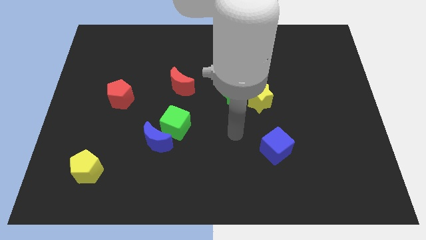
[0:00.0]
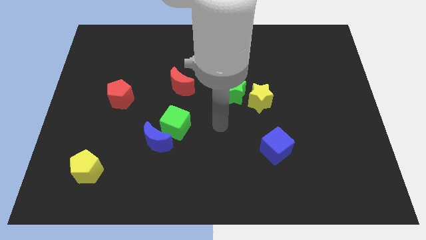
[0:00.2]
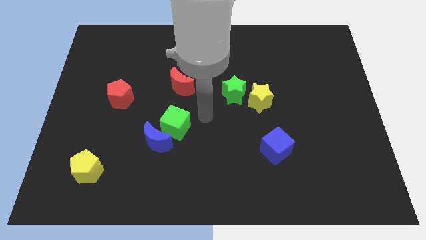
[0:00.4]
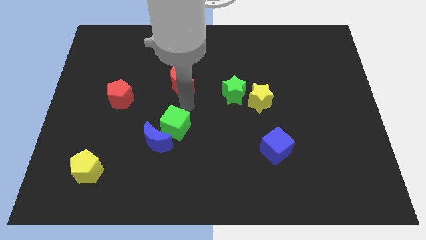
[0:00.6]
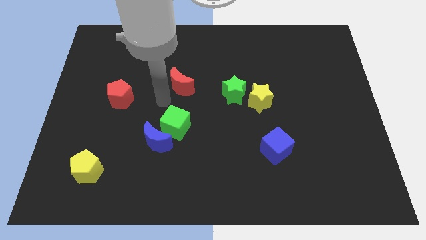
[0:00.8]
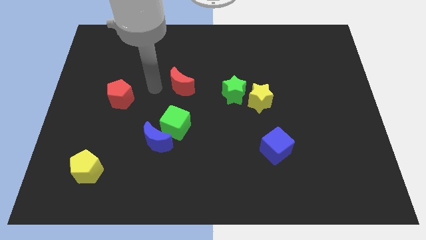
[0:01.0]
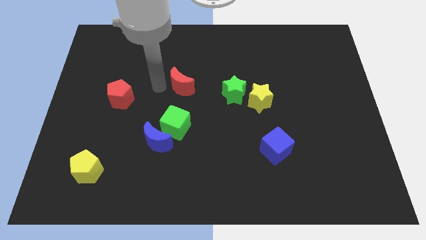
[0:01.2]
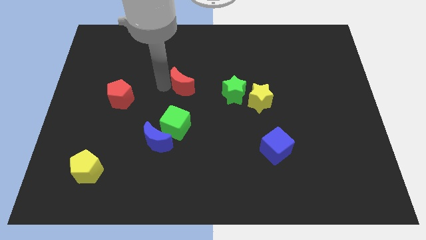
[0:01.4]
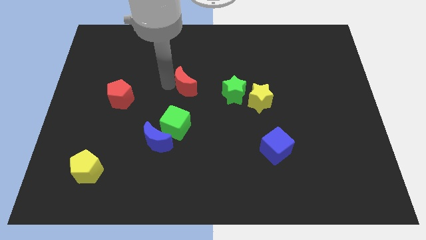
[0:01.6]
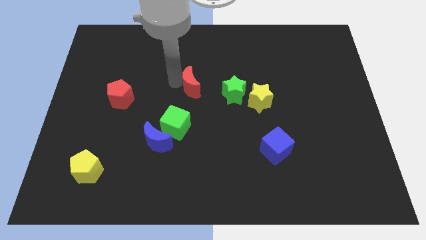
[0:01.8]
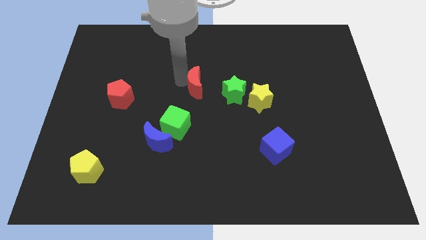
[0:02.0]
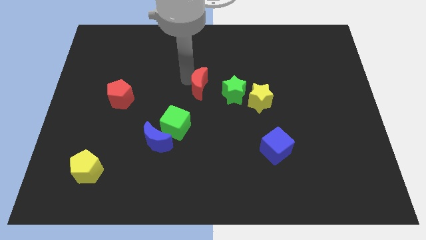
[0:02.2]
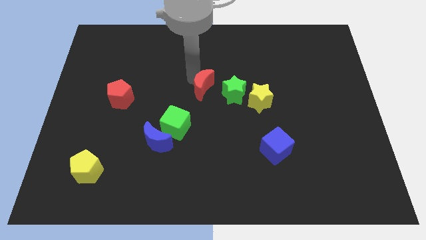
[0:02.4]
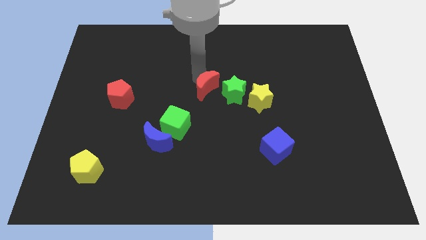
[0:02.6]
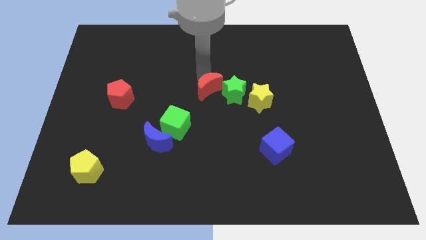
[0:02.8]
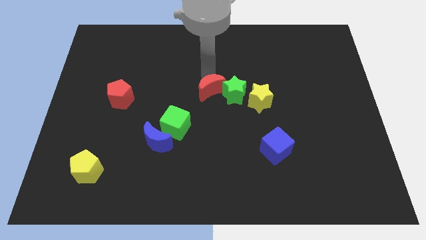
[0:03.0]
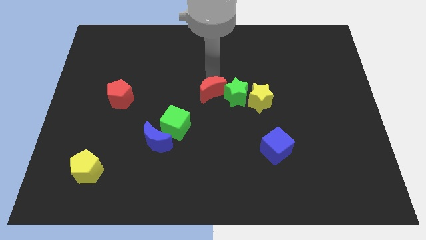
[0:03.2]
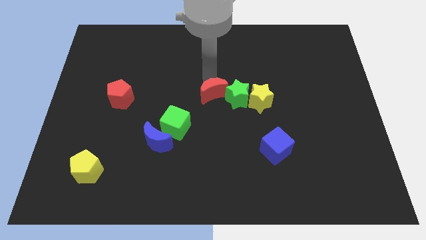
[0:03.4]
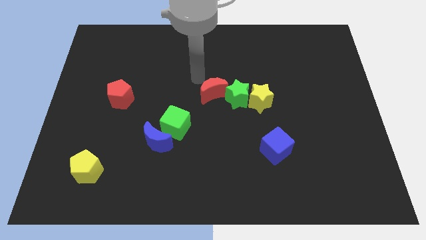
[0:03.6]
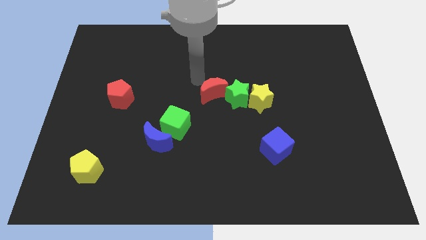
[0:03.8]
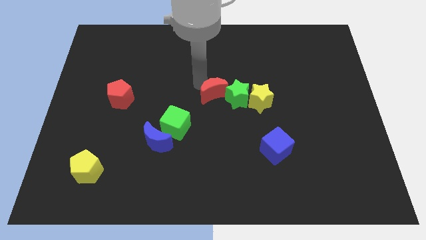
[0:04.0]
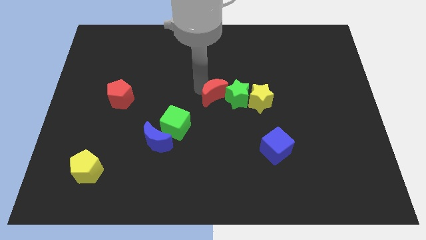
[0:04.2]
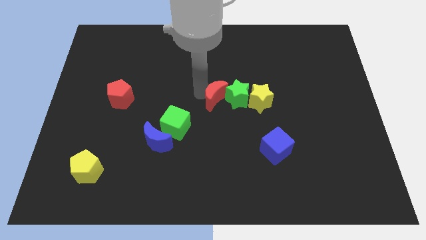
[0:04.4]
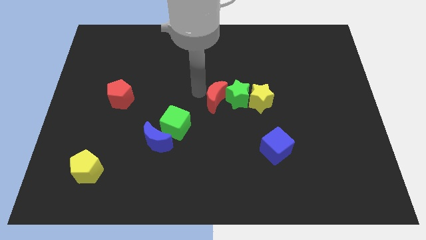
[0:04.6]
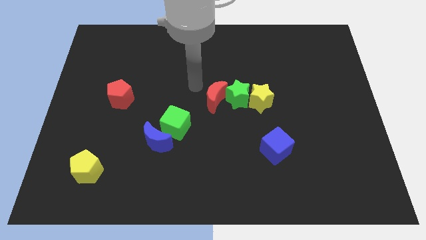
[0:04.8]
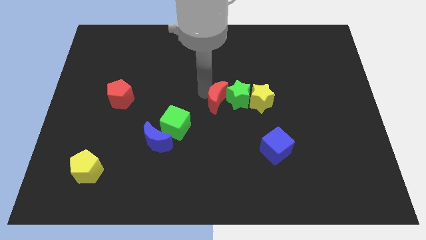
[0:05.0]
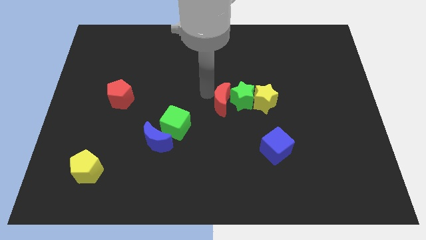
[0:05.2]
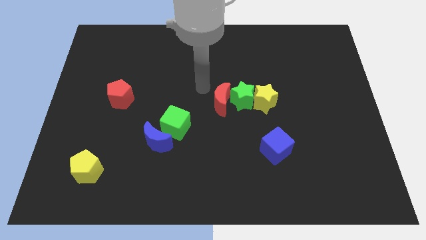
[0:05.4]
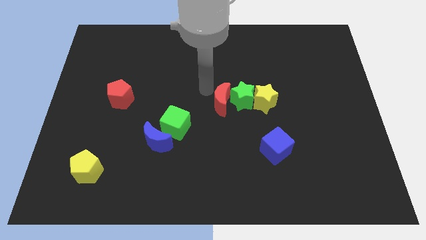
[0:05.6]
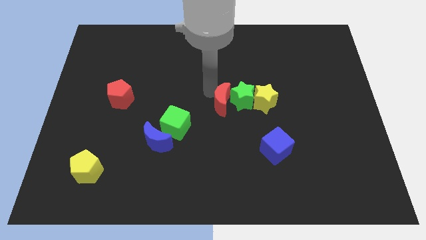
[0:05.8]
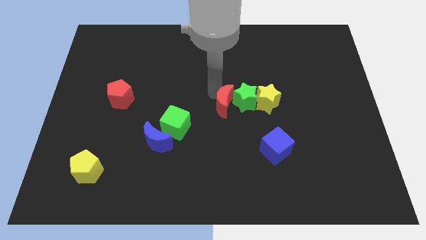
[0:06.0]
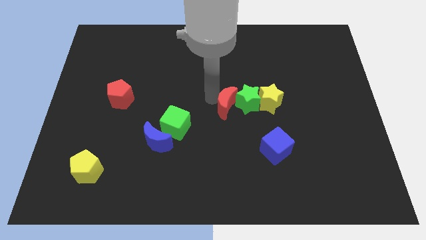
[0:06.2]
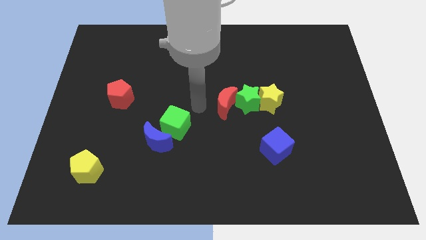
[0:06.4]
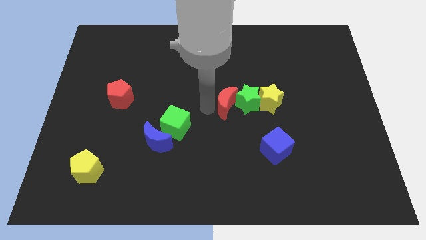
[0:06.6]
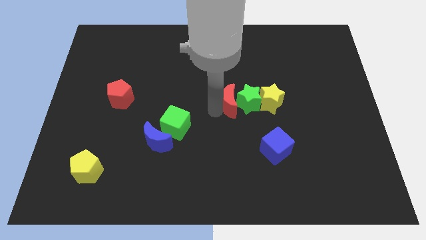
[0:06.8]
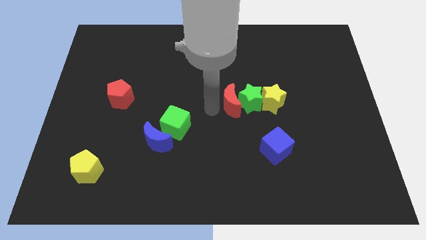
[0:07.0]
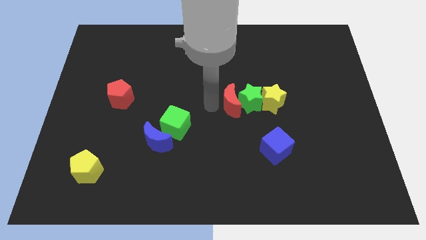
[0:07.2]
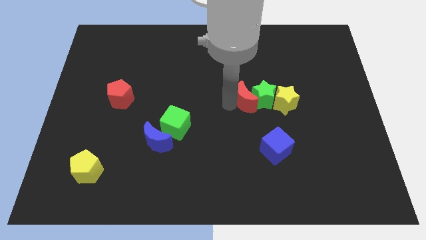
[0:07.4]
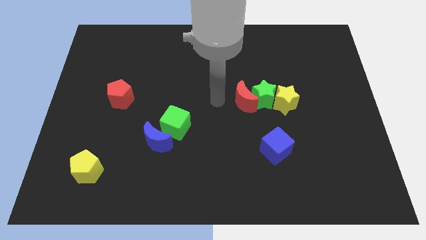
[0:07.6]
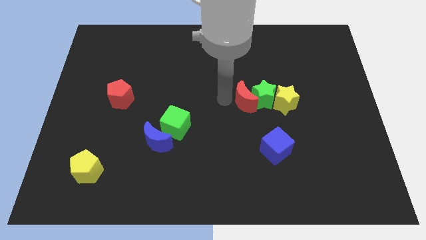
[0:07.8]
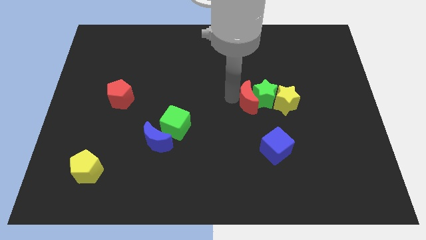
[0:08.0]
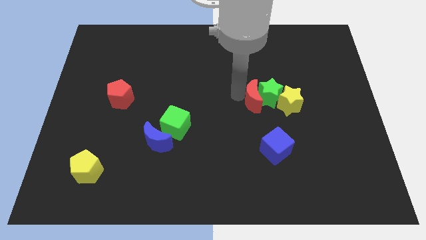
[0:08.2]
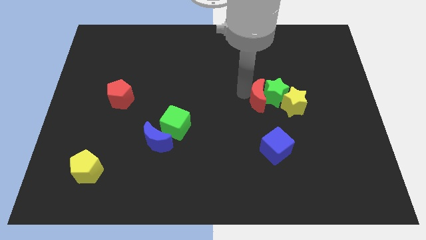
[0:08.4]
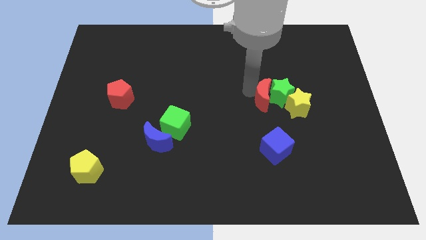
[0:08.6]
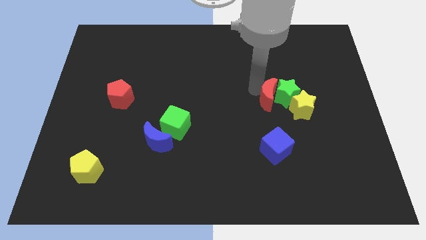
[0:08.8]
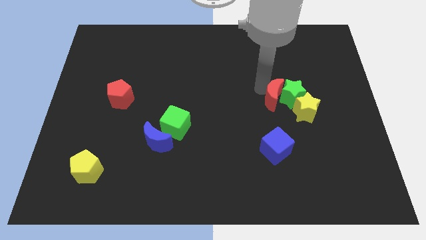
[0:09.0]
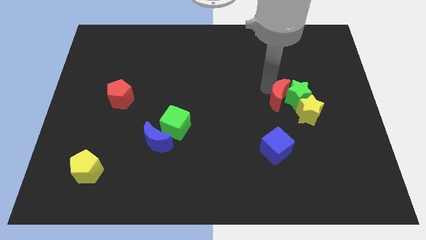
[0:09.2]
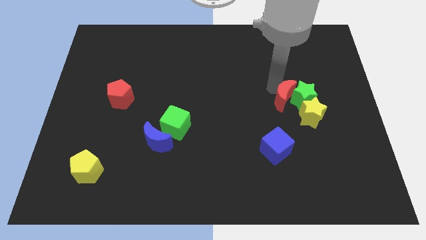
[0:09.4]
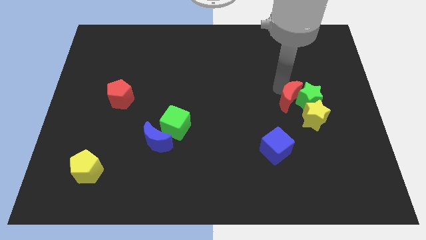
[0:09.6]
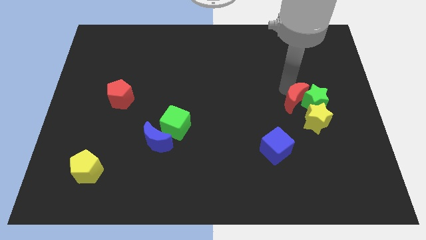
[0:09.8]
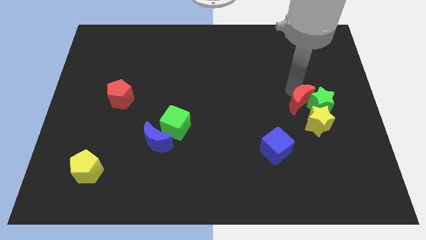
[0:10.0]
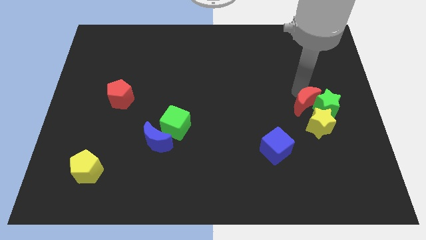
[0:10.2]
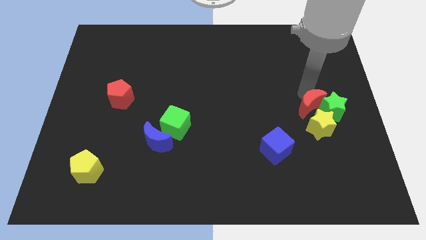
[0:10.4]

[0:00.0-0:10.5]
put the red moon to the yellow star

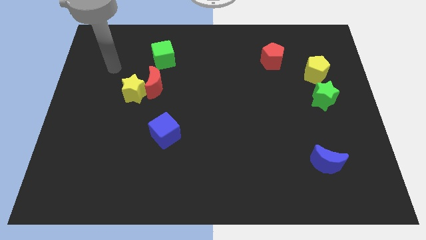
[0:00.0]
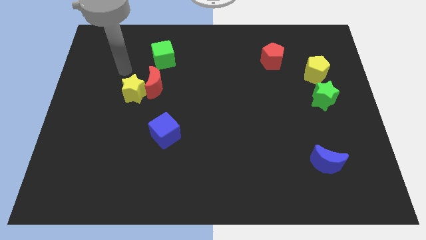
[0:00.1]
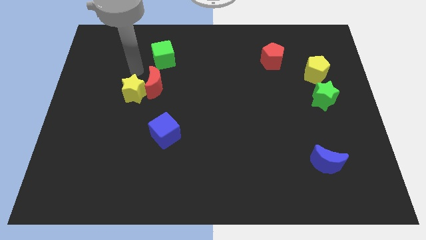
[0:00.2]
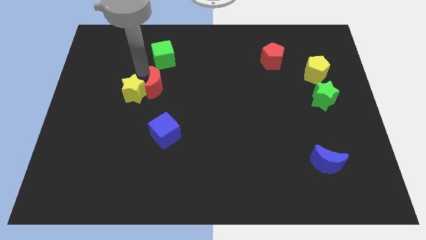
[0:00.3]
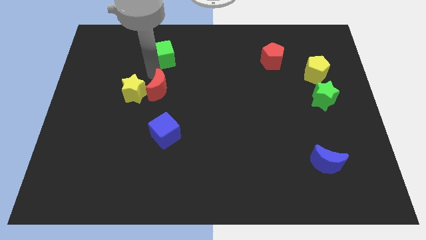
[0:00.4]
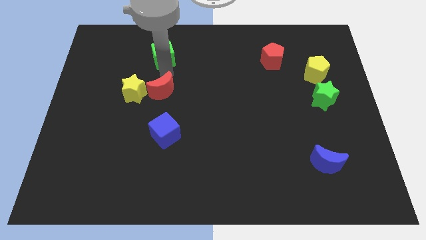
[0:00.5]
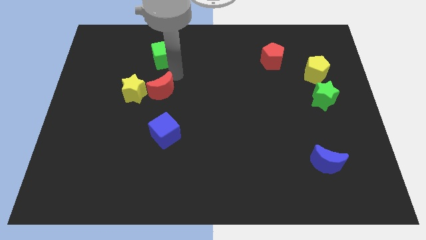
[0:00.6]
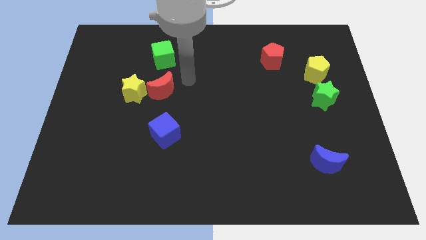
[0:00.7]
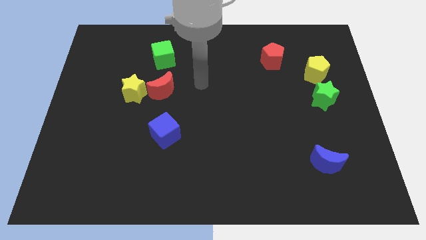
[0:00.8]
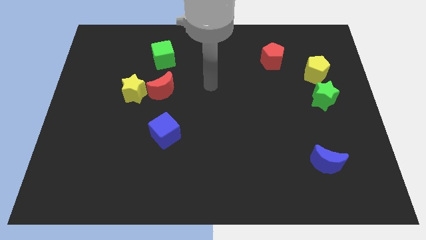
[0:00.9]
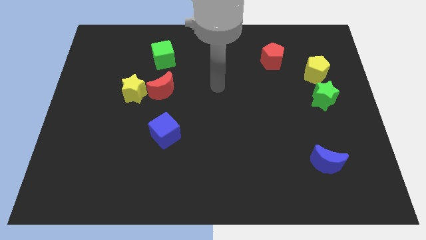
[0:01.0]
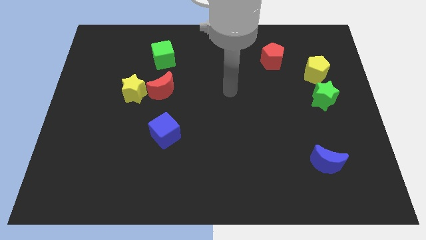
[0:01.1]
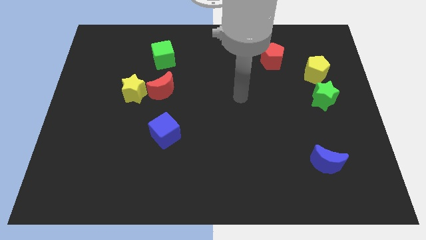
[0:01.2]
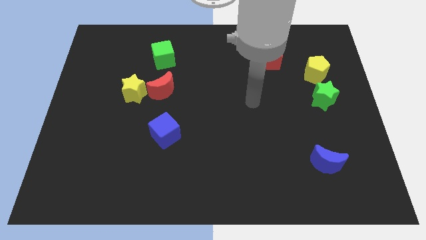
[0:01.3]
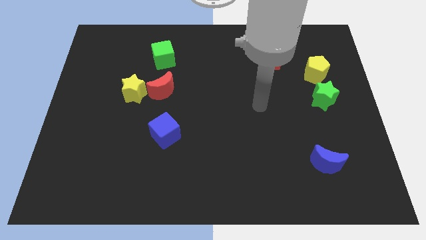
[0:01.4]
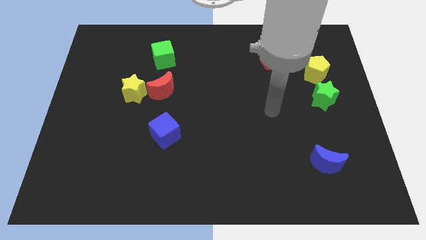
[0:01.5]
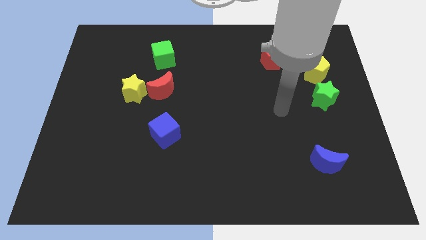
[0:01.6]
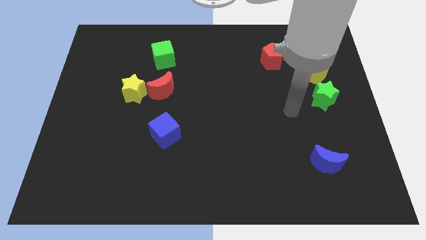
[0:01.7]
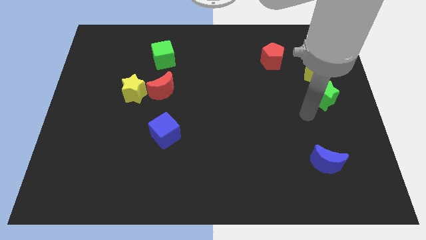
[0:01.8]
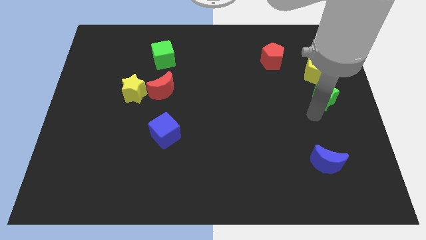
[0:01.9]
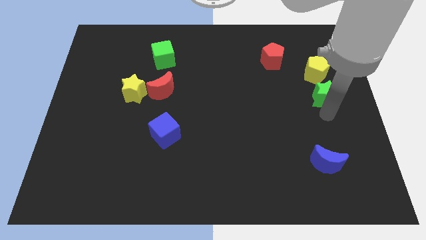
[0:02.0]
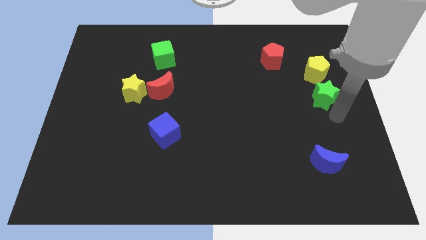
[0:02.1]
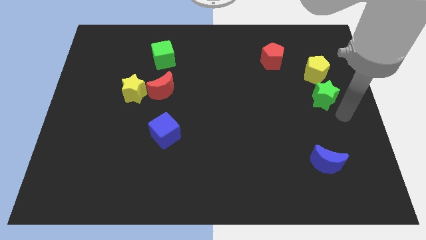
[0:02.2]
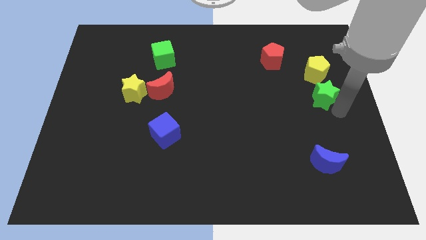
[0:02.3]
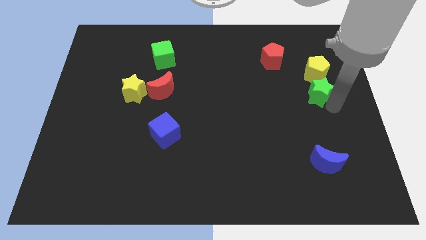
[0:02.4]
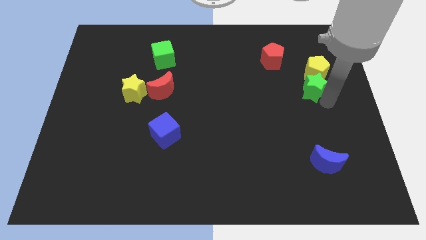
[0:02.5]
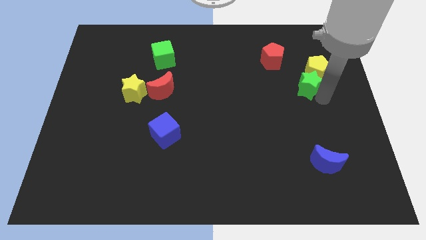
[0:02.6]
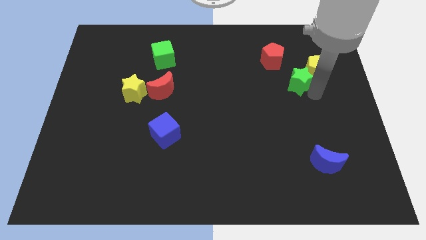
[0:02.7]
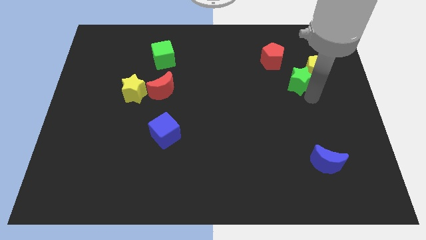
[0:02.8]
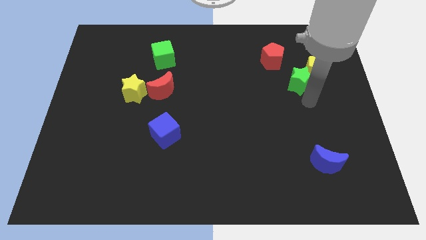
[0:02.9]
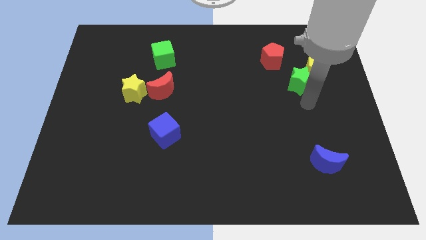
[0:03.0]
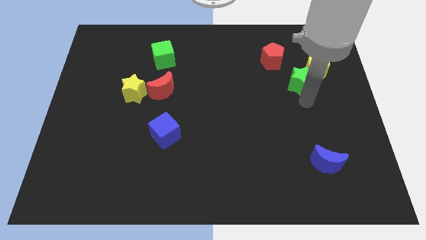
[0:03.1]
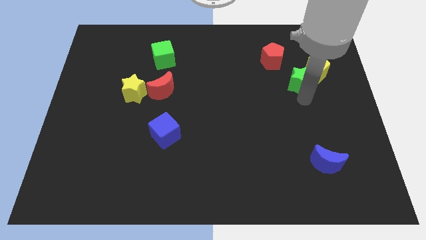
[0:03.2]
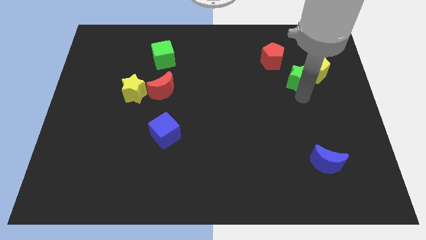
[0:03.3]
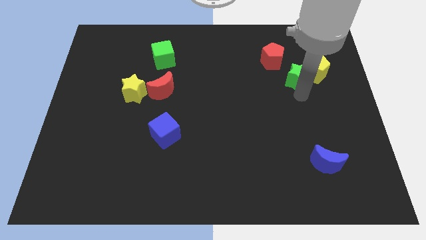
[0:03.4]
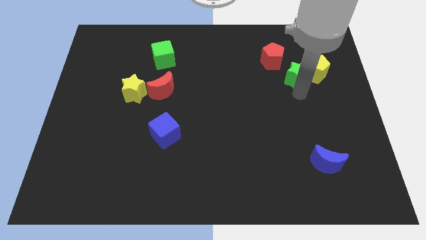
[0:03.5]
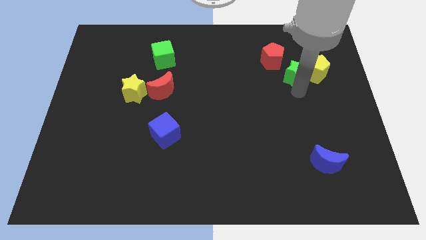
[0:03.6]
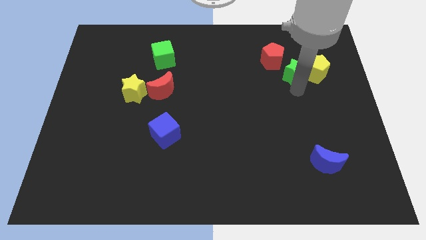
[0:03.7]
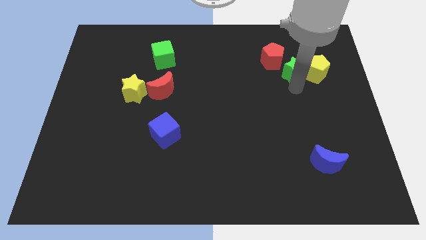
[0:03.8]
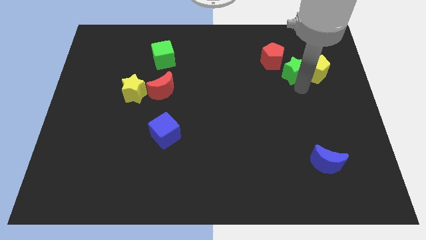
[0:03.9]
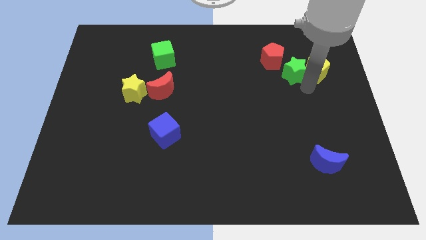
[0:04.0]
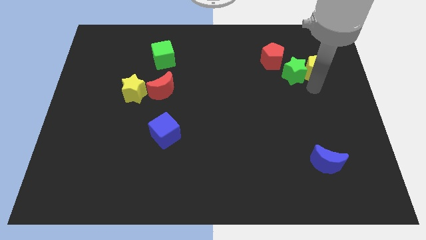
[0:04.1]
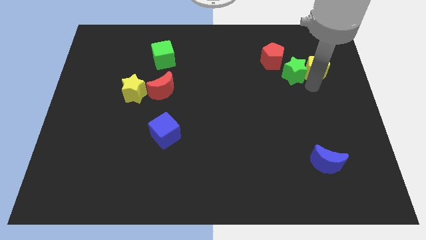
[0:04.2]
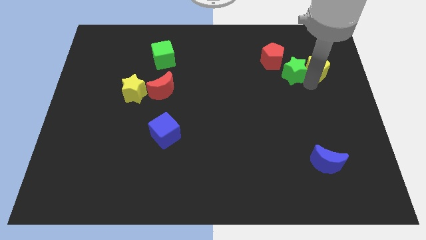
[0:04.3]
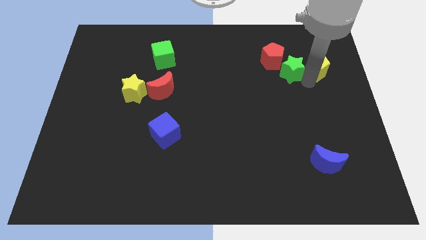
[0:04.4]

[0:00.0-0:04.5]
push the green star towards the red pentagon
